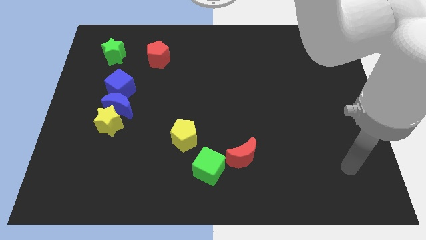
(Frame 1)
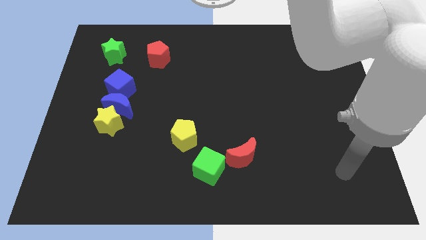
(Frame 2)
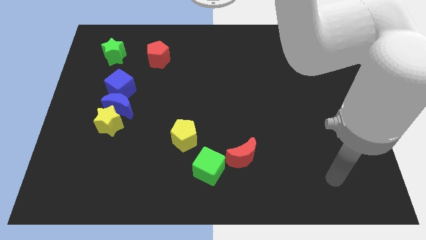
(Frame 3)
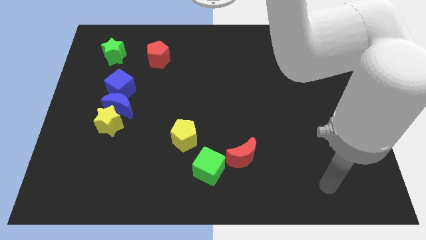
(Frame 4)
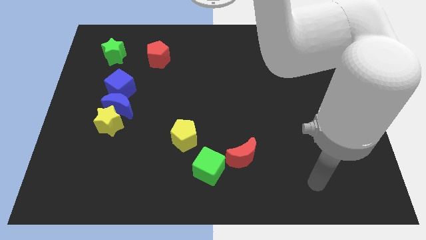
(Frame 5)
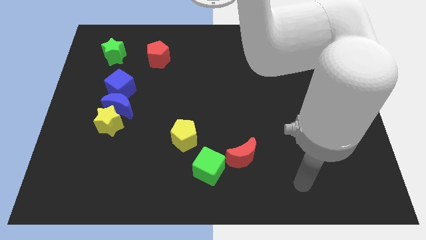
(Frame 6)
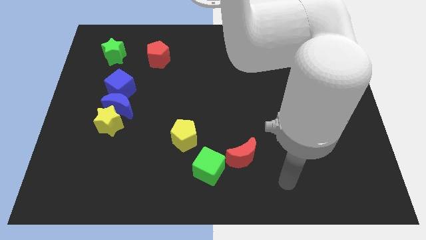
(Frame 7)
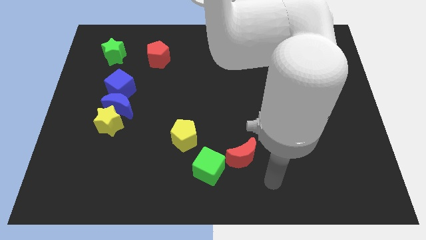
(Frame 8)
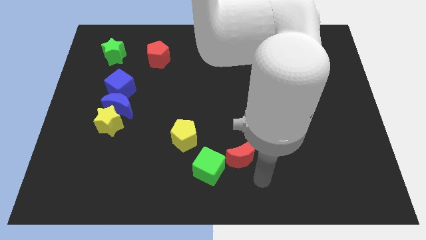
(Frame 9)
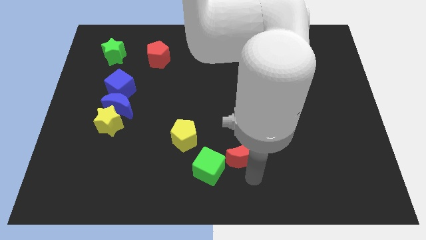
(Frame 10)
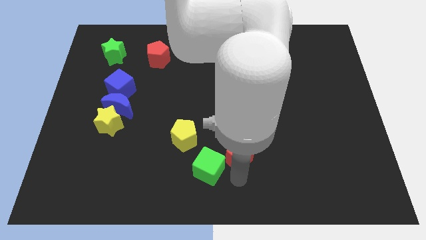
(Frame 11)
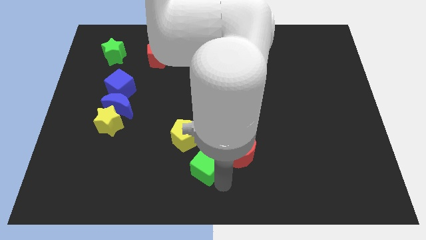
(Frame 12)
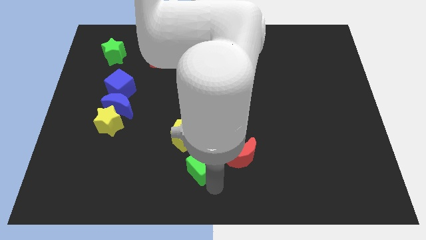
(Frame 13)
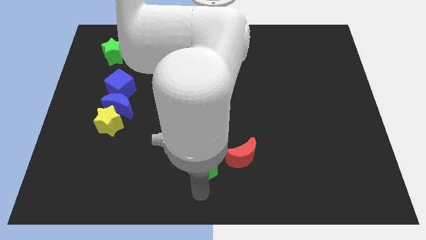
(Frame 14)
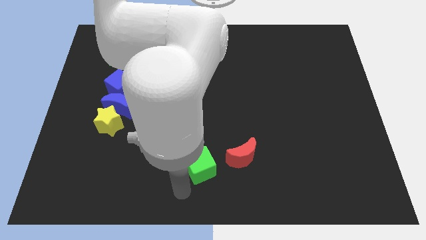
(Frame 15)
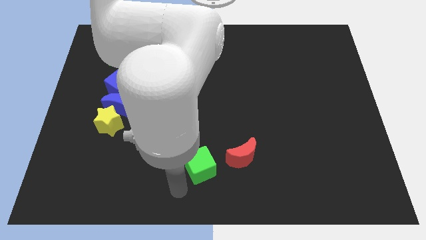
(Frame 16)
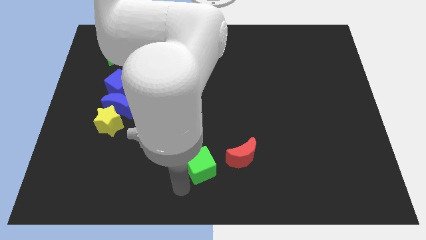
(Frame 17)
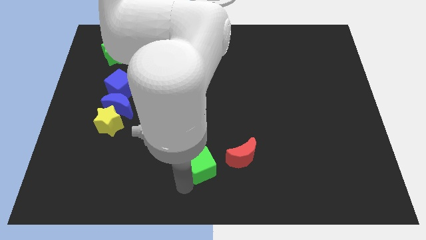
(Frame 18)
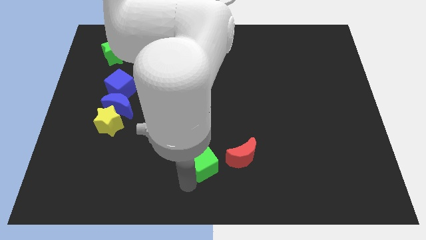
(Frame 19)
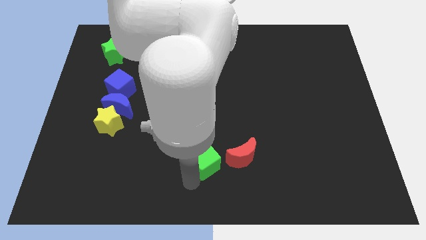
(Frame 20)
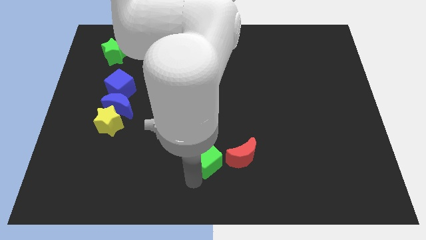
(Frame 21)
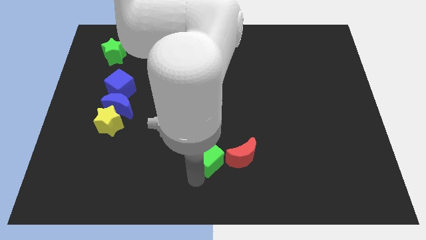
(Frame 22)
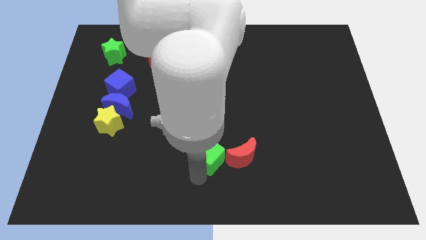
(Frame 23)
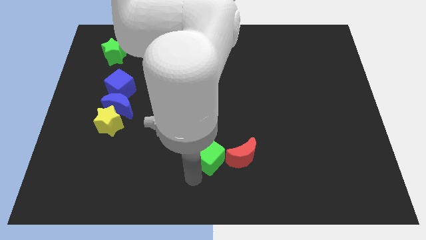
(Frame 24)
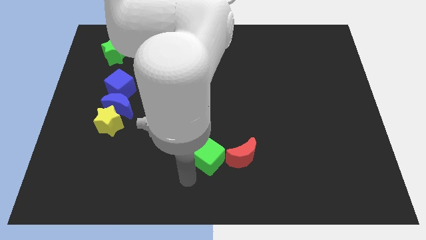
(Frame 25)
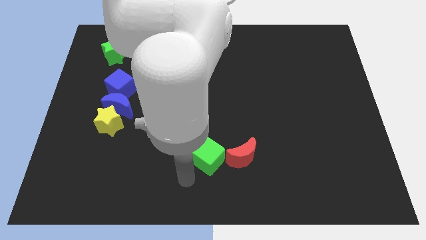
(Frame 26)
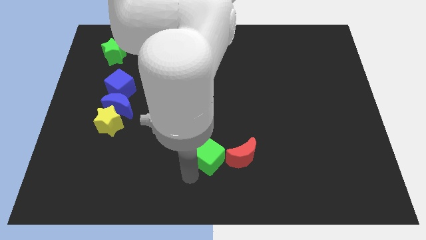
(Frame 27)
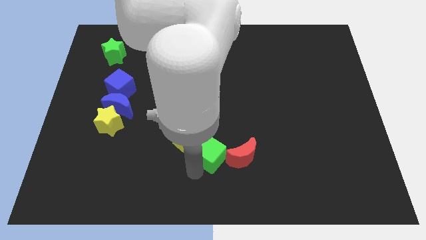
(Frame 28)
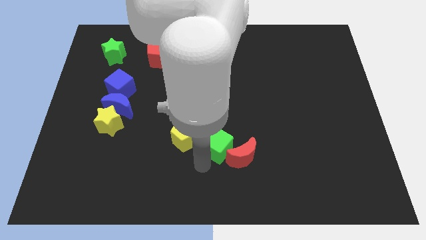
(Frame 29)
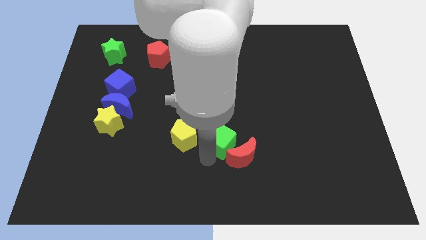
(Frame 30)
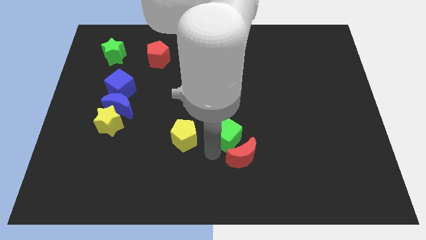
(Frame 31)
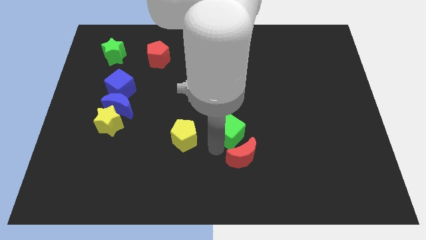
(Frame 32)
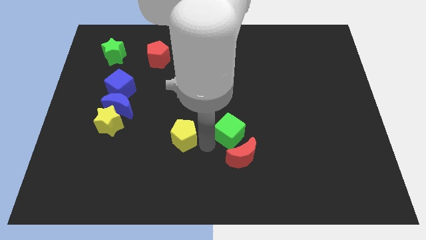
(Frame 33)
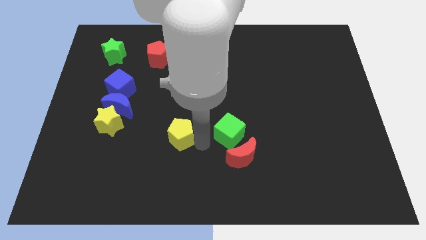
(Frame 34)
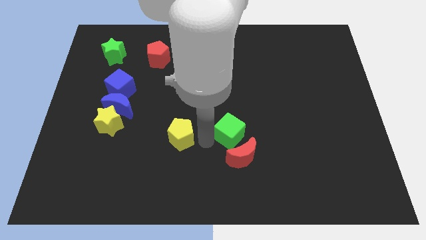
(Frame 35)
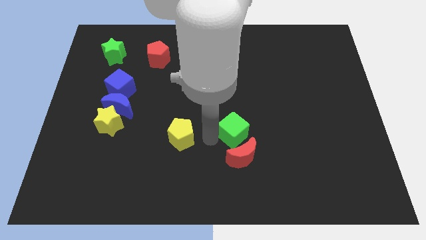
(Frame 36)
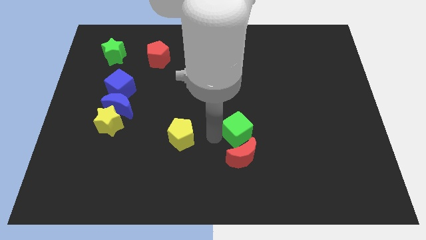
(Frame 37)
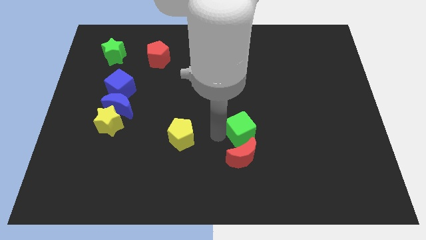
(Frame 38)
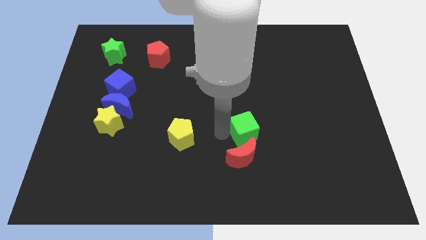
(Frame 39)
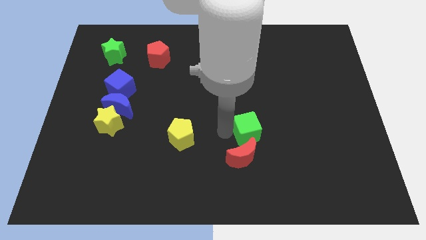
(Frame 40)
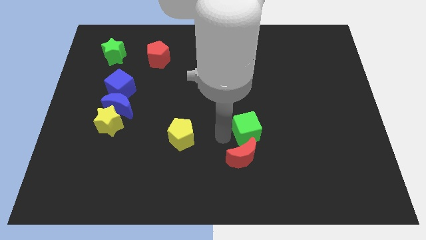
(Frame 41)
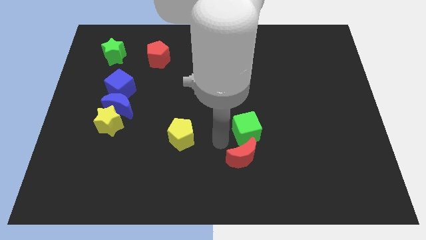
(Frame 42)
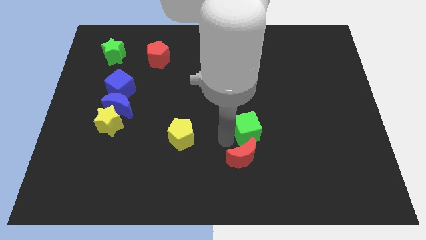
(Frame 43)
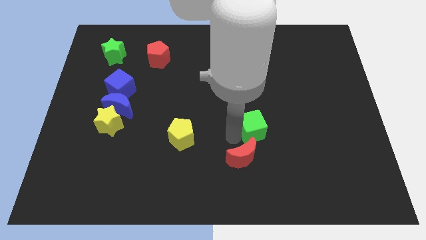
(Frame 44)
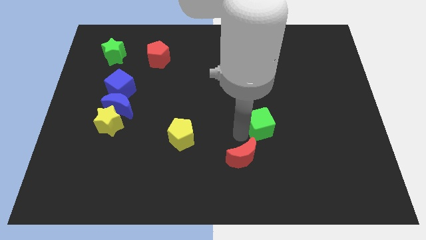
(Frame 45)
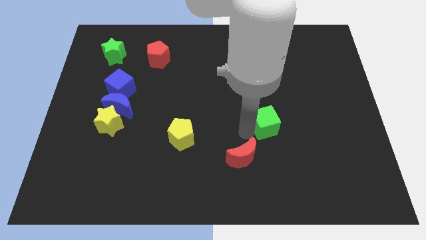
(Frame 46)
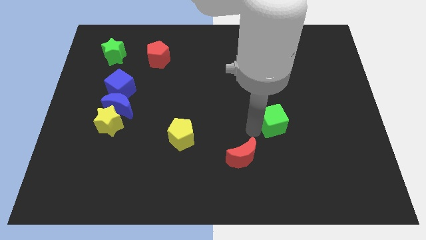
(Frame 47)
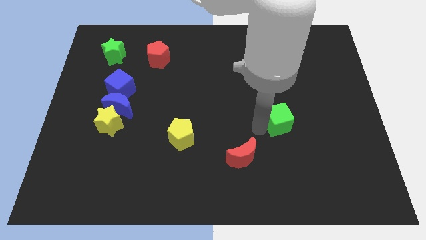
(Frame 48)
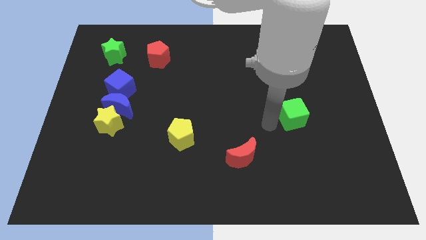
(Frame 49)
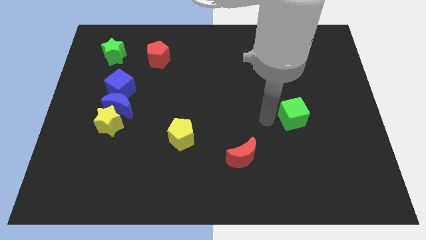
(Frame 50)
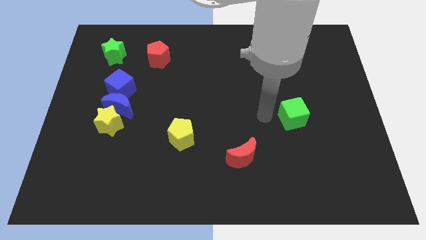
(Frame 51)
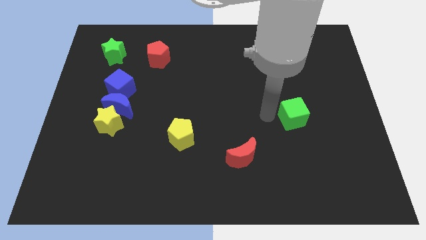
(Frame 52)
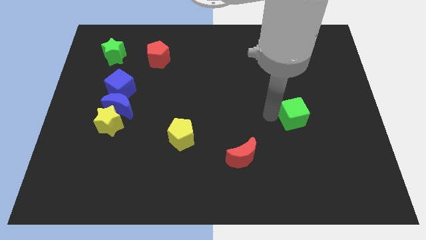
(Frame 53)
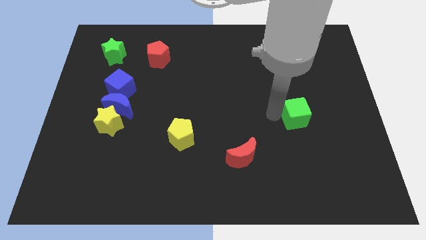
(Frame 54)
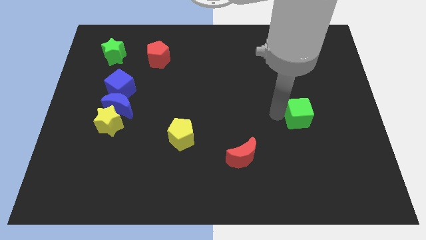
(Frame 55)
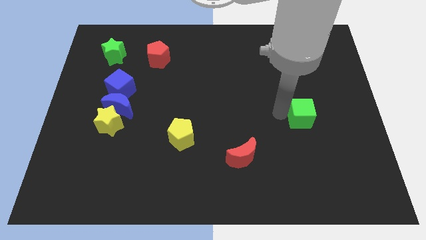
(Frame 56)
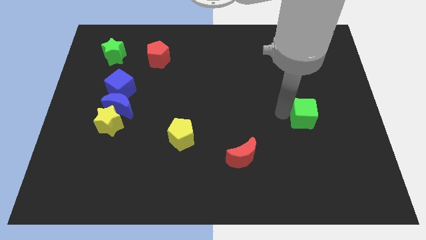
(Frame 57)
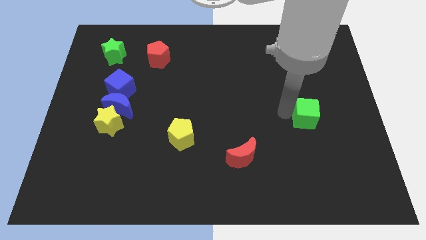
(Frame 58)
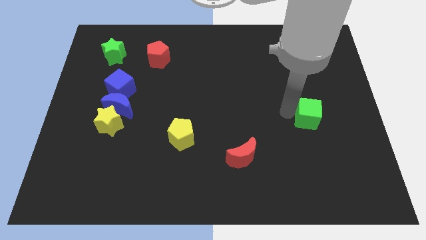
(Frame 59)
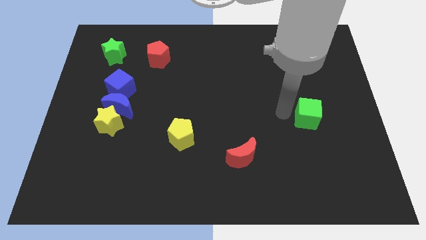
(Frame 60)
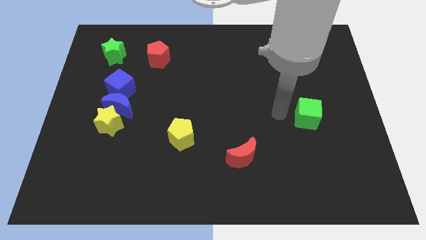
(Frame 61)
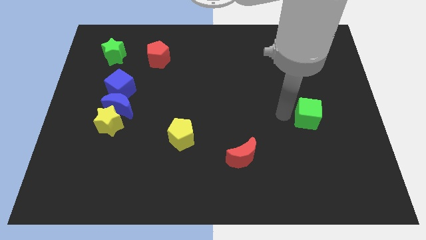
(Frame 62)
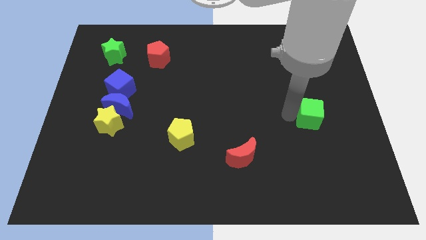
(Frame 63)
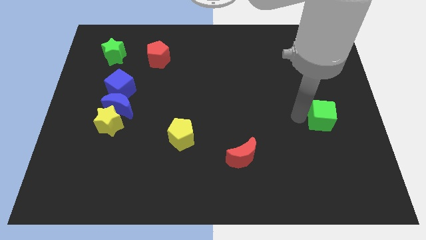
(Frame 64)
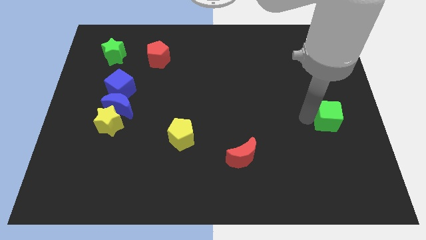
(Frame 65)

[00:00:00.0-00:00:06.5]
put the green cube to the center right

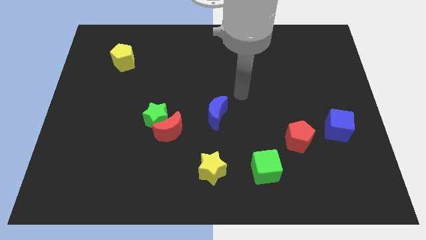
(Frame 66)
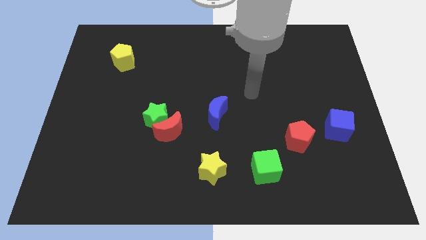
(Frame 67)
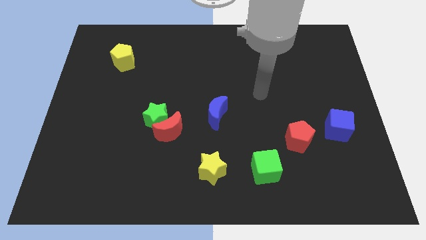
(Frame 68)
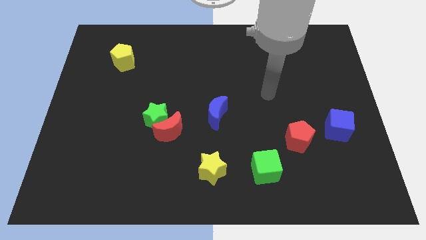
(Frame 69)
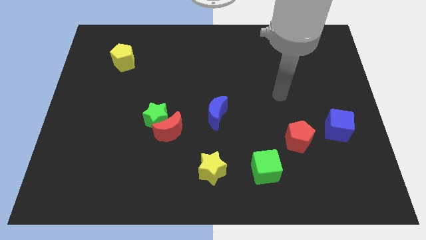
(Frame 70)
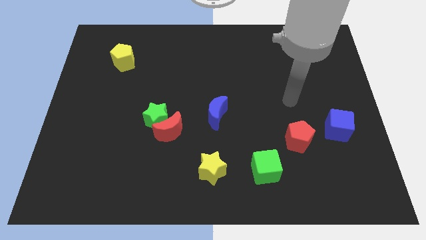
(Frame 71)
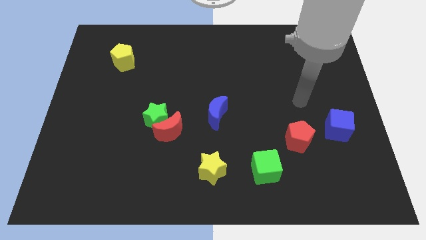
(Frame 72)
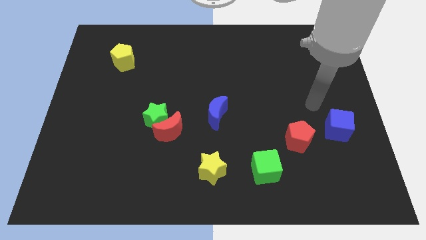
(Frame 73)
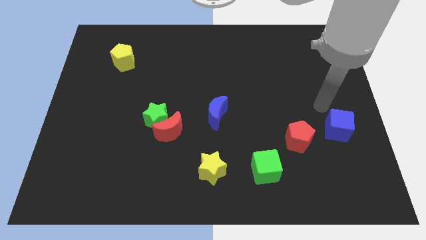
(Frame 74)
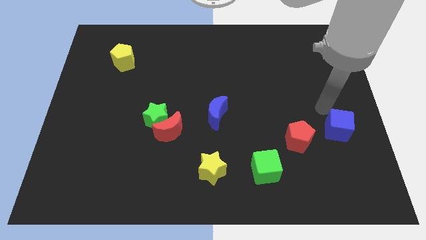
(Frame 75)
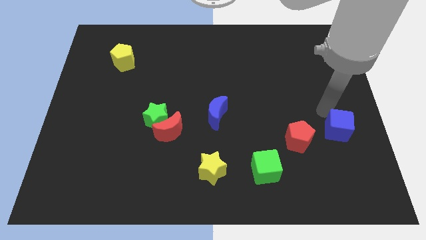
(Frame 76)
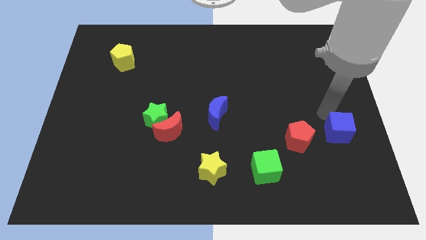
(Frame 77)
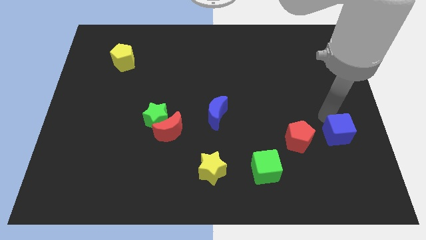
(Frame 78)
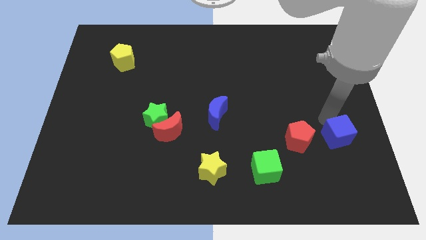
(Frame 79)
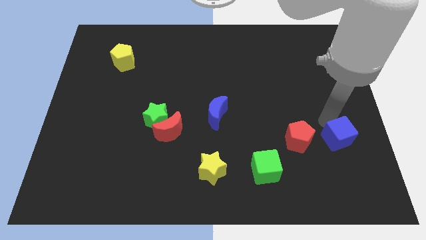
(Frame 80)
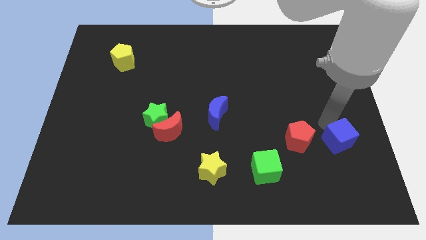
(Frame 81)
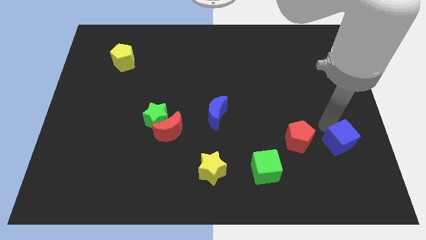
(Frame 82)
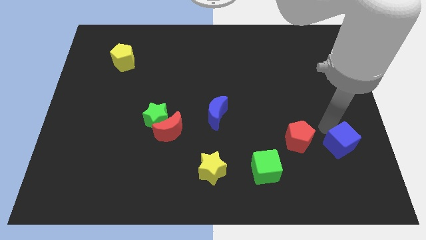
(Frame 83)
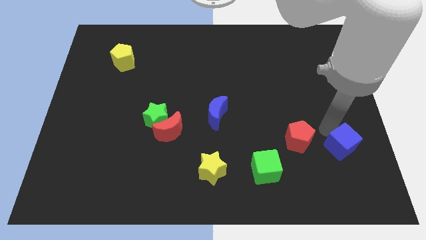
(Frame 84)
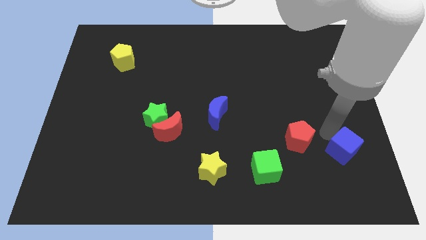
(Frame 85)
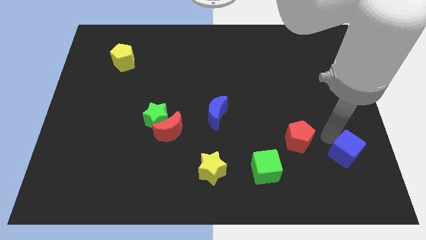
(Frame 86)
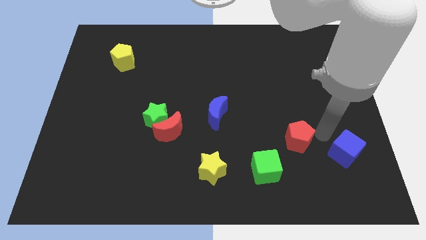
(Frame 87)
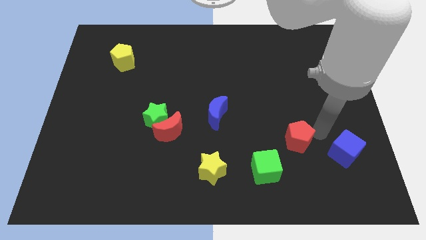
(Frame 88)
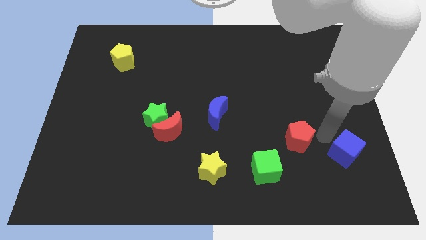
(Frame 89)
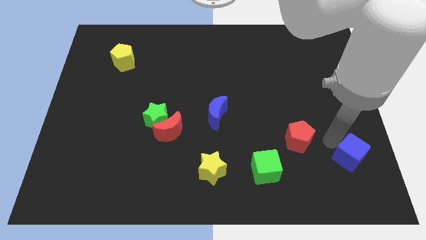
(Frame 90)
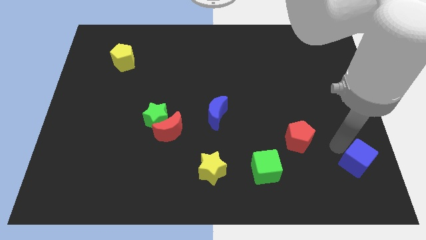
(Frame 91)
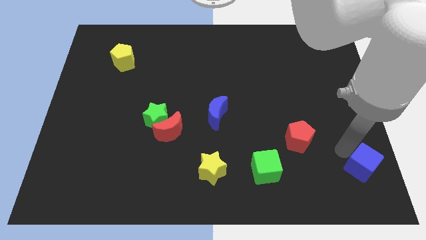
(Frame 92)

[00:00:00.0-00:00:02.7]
push the blue cube to the lower right corner
